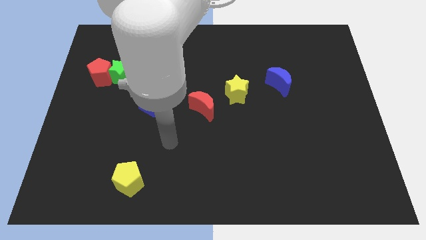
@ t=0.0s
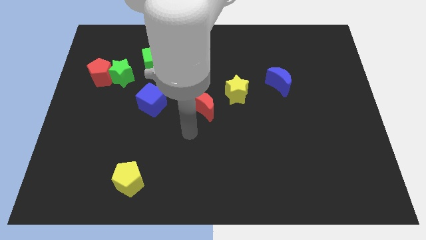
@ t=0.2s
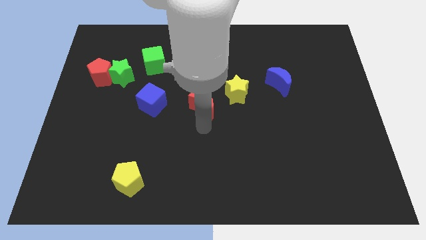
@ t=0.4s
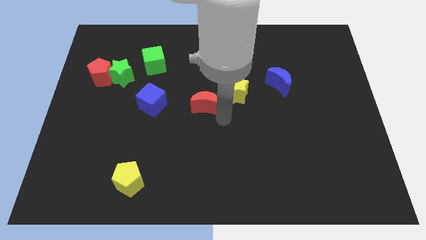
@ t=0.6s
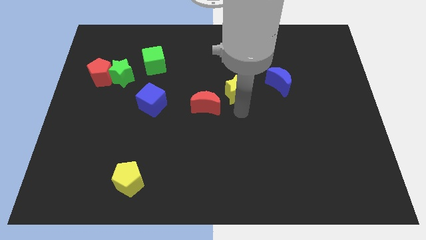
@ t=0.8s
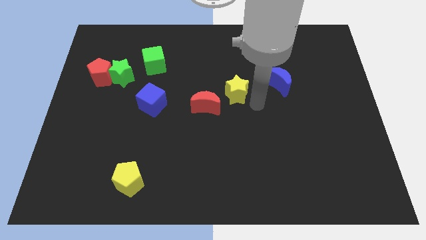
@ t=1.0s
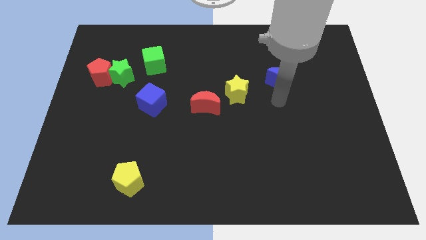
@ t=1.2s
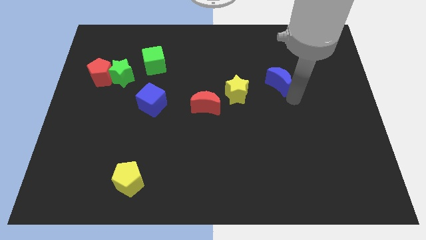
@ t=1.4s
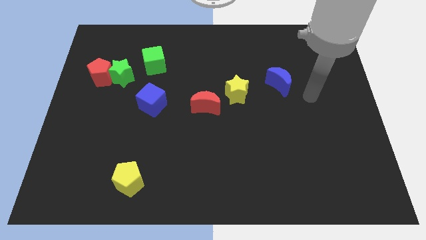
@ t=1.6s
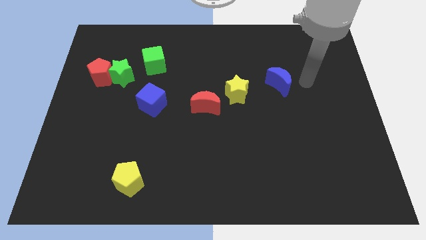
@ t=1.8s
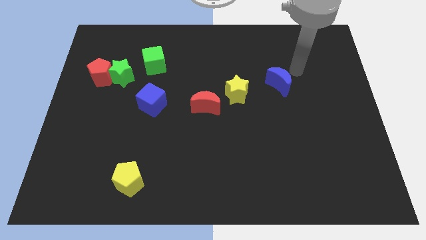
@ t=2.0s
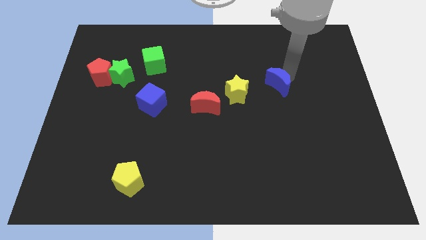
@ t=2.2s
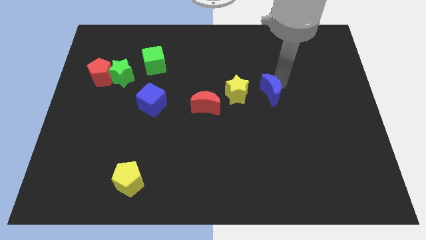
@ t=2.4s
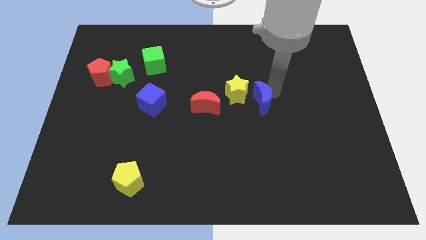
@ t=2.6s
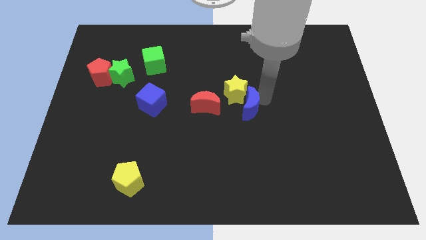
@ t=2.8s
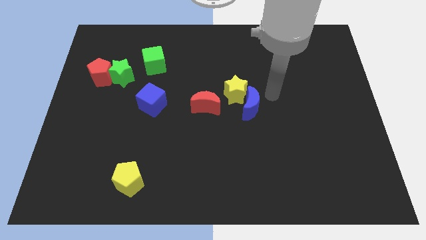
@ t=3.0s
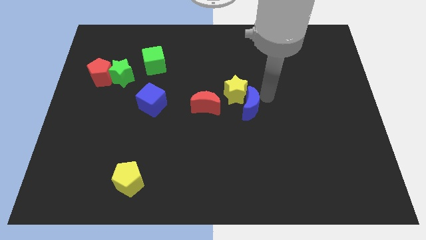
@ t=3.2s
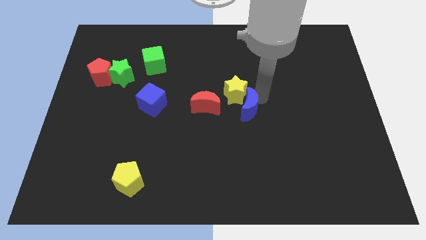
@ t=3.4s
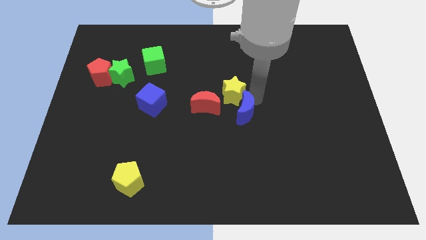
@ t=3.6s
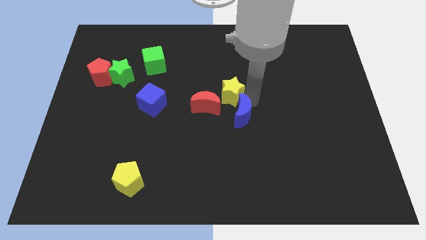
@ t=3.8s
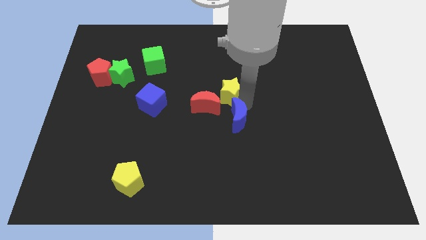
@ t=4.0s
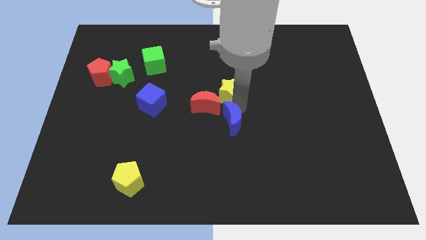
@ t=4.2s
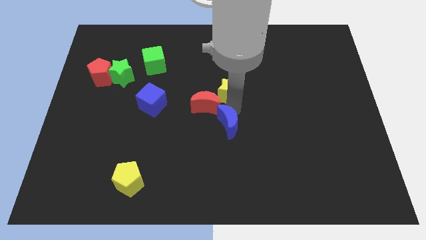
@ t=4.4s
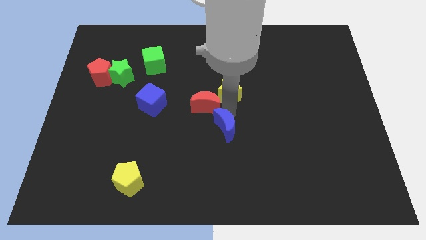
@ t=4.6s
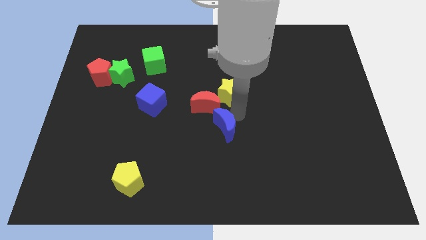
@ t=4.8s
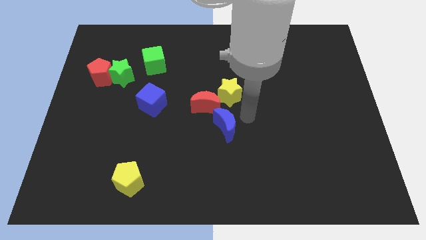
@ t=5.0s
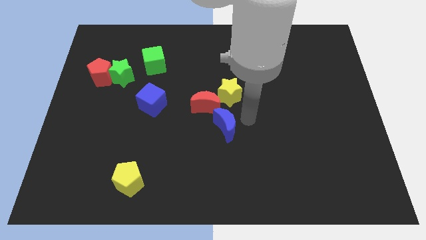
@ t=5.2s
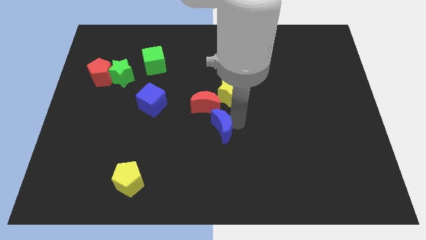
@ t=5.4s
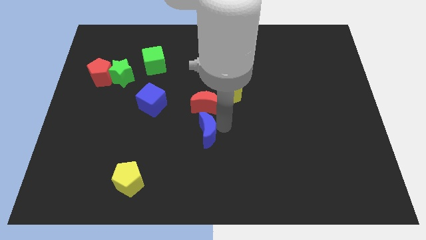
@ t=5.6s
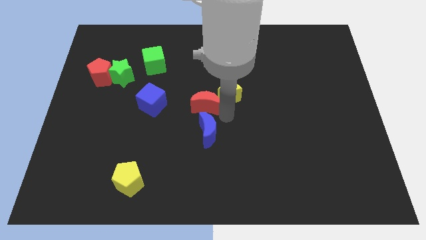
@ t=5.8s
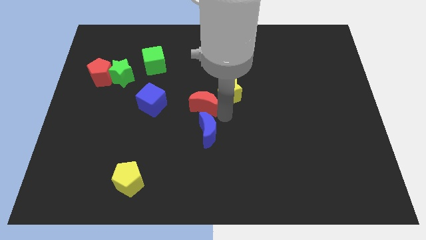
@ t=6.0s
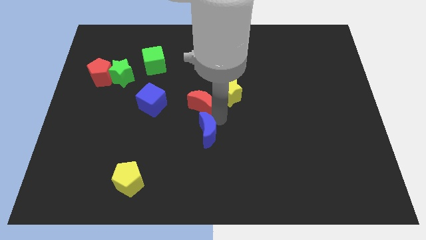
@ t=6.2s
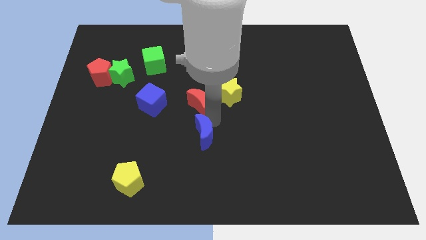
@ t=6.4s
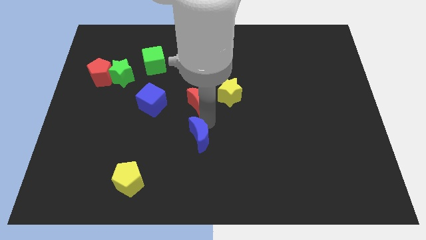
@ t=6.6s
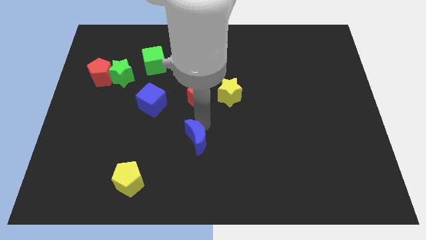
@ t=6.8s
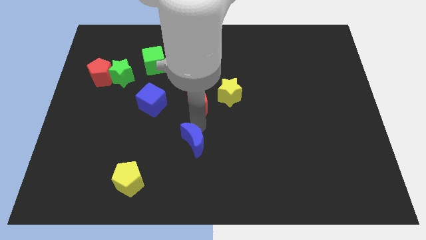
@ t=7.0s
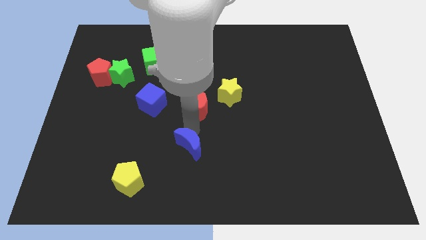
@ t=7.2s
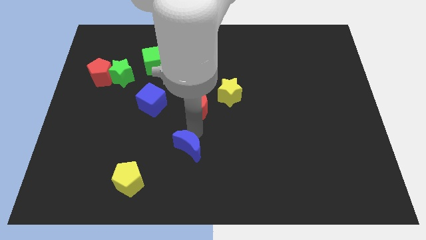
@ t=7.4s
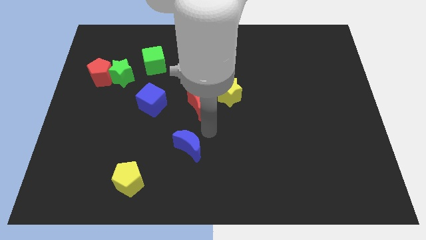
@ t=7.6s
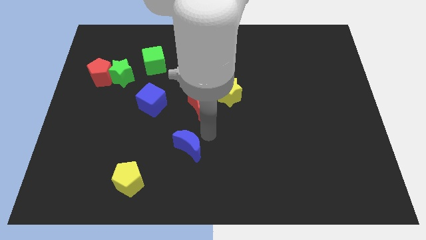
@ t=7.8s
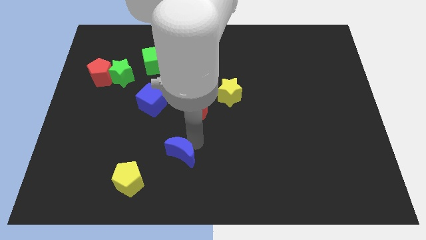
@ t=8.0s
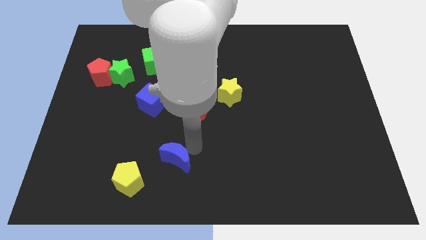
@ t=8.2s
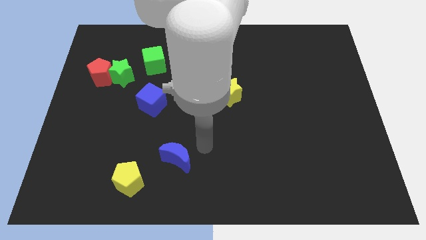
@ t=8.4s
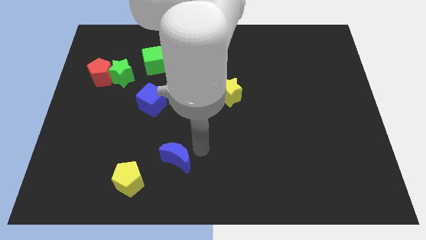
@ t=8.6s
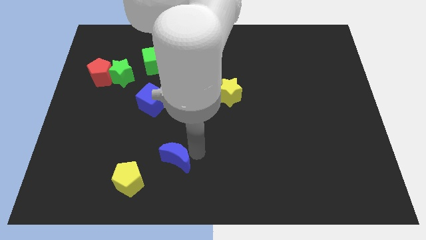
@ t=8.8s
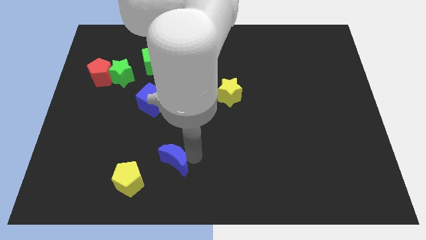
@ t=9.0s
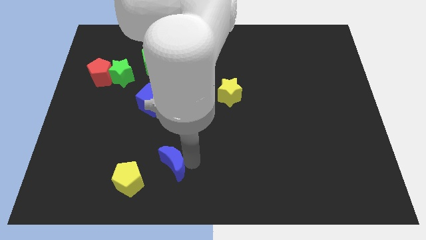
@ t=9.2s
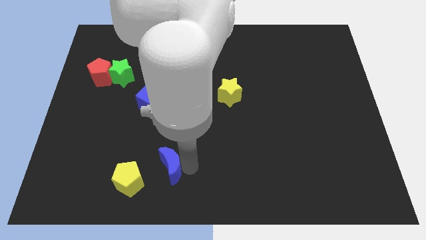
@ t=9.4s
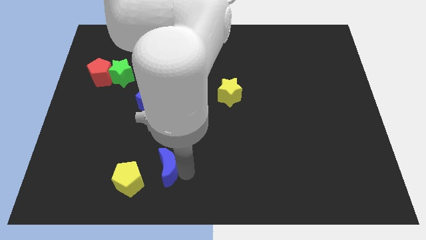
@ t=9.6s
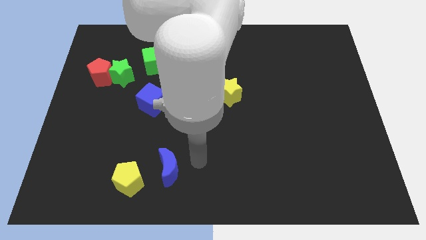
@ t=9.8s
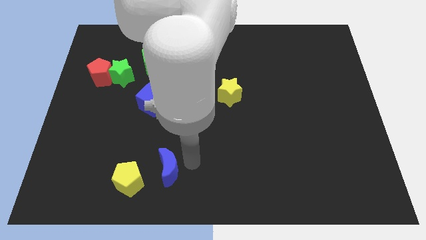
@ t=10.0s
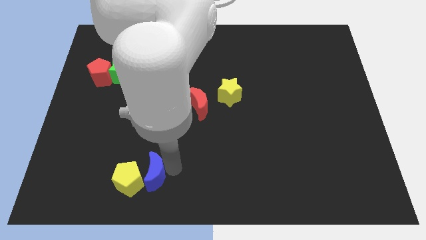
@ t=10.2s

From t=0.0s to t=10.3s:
put the blue moon close to the yellow pentagon

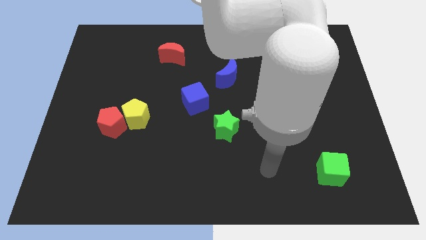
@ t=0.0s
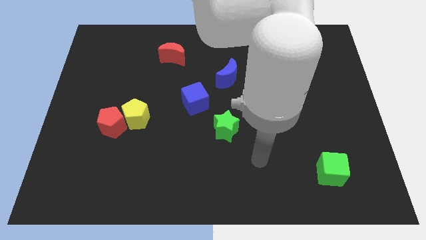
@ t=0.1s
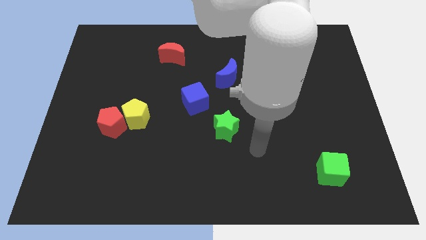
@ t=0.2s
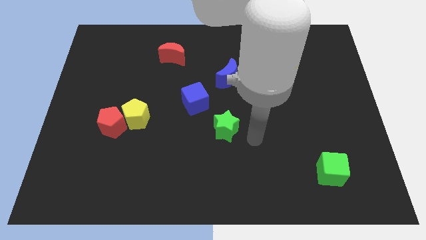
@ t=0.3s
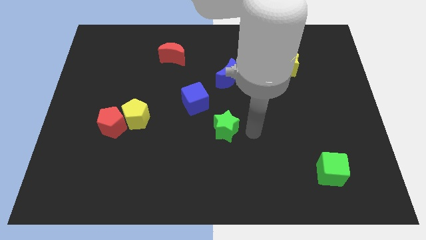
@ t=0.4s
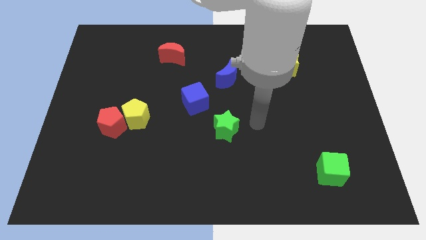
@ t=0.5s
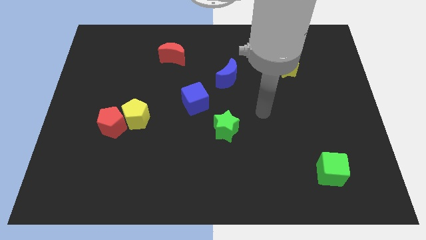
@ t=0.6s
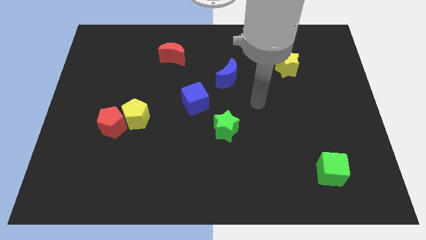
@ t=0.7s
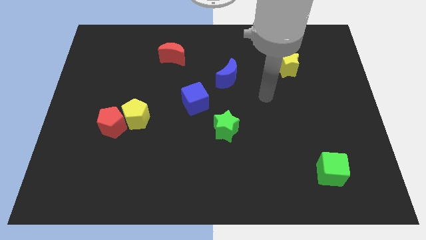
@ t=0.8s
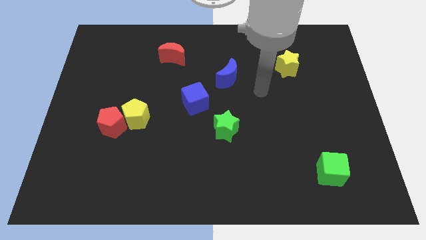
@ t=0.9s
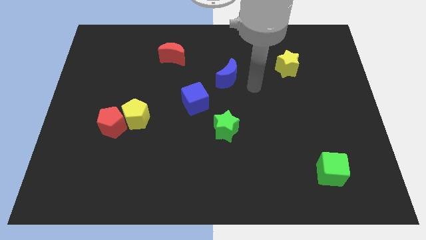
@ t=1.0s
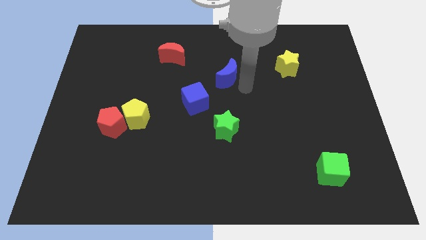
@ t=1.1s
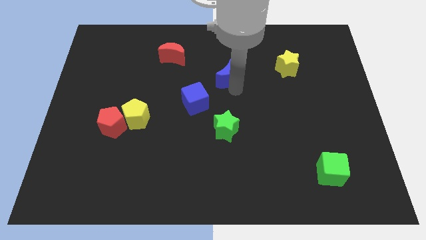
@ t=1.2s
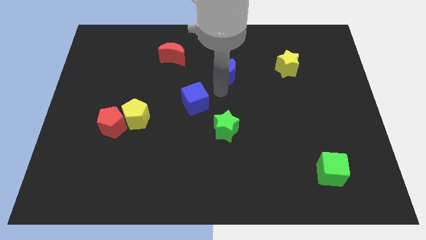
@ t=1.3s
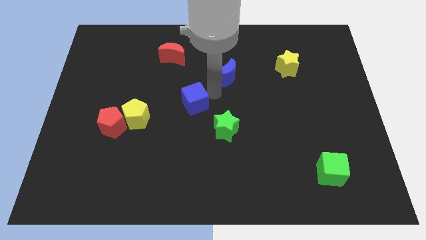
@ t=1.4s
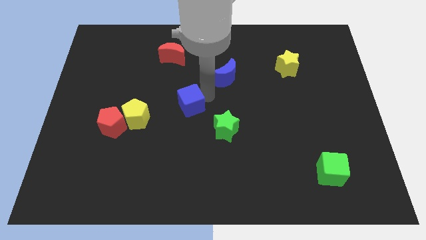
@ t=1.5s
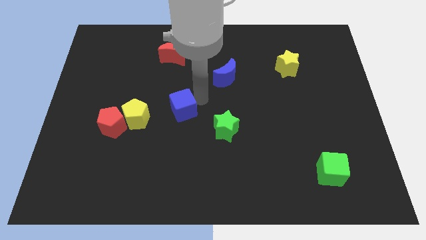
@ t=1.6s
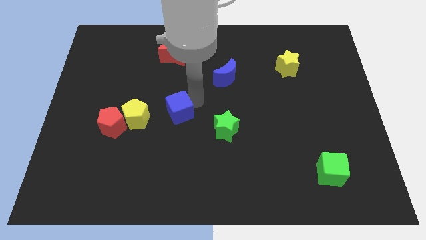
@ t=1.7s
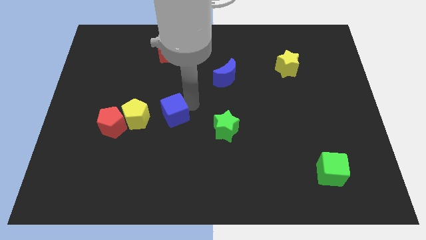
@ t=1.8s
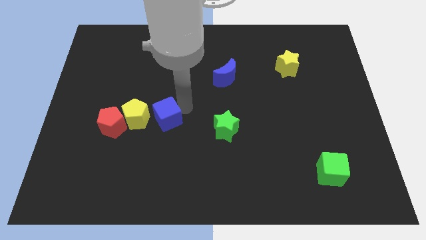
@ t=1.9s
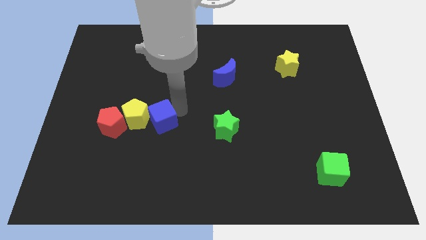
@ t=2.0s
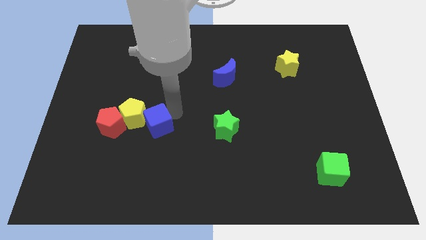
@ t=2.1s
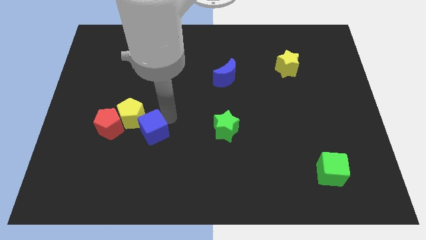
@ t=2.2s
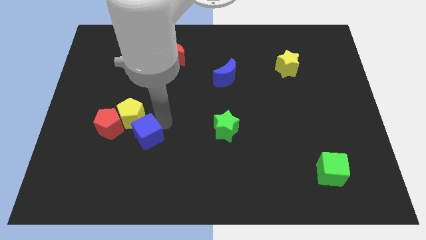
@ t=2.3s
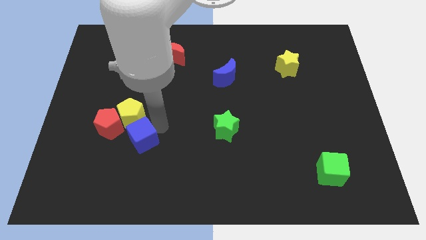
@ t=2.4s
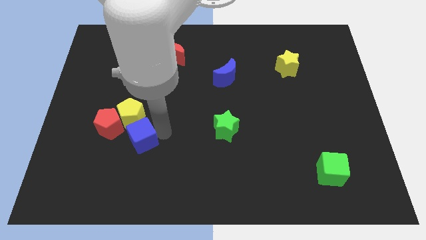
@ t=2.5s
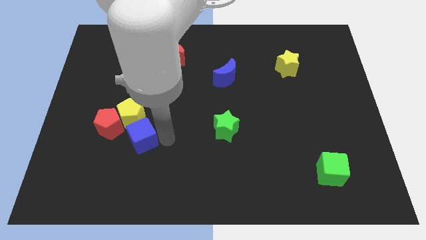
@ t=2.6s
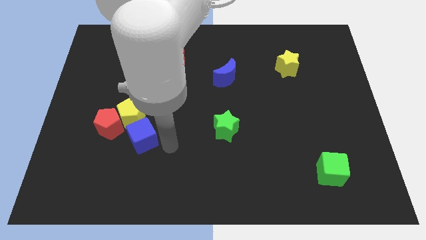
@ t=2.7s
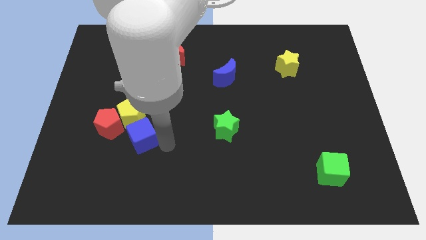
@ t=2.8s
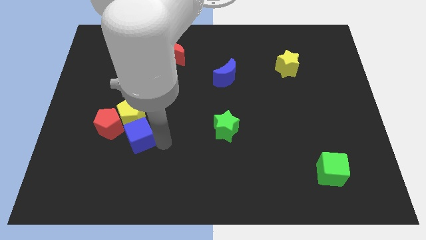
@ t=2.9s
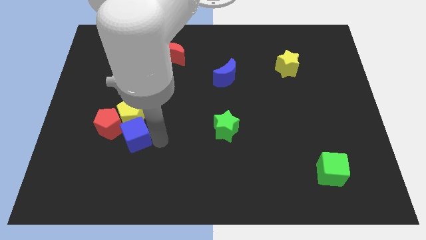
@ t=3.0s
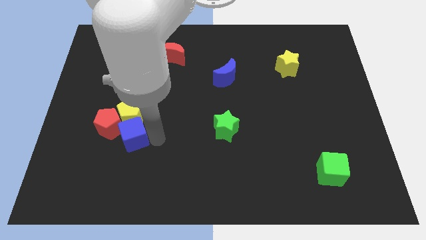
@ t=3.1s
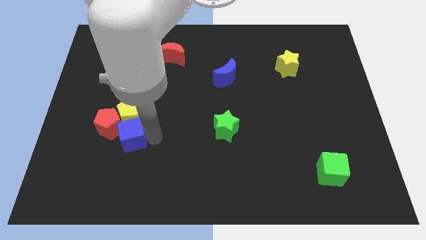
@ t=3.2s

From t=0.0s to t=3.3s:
push the blue cube towards the red pentagon
